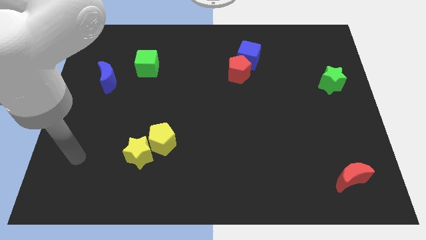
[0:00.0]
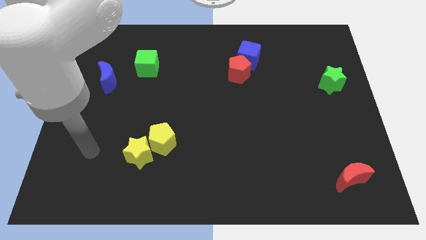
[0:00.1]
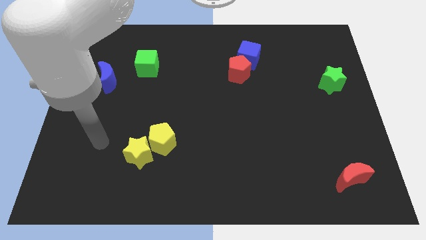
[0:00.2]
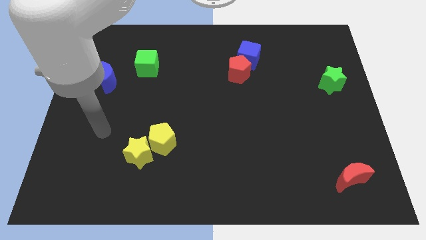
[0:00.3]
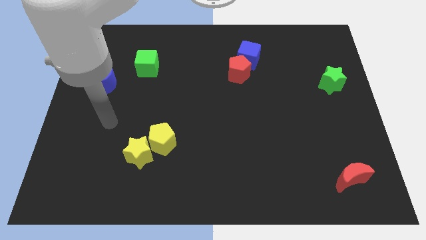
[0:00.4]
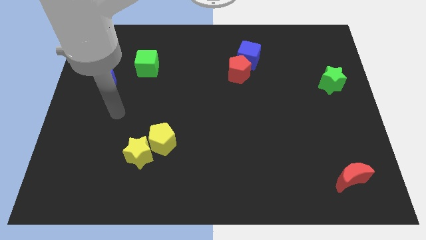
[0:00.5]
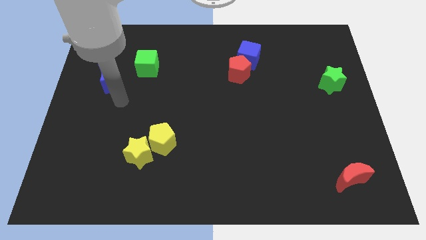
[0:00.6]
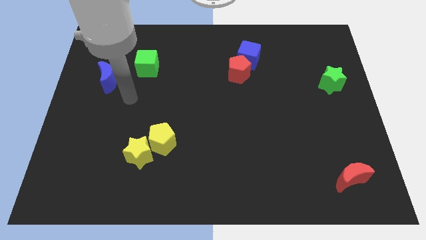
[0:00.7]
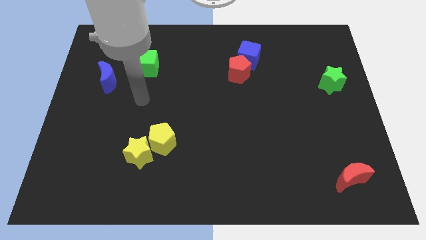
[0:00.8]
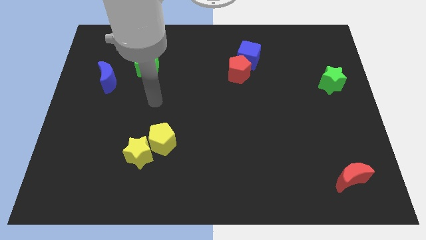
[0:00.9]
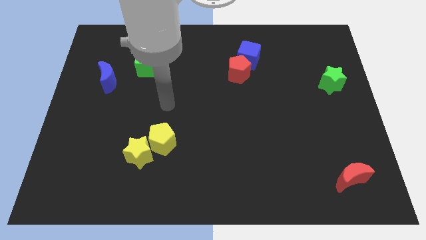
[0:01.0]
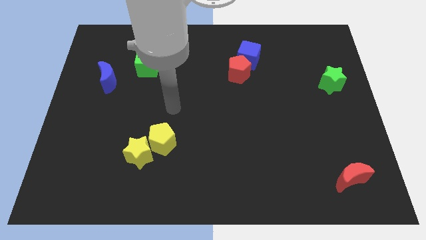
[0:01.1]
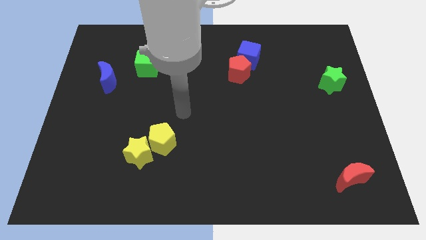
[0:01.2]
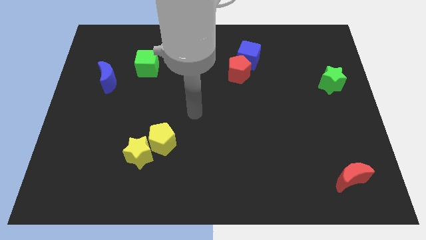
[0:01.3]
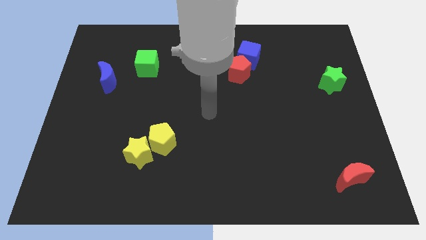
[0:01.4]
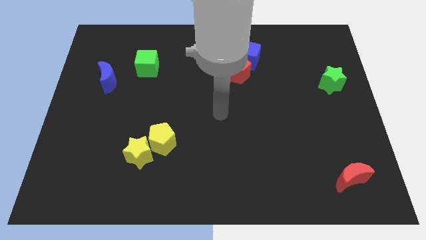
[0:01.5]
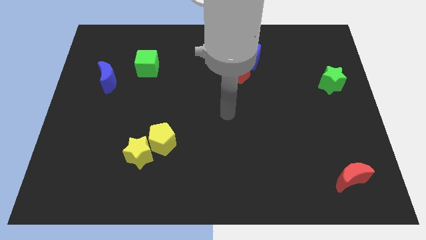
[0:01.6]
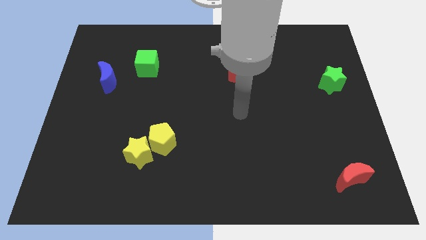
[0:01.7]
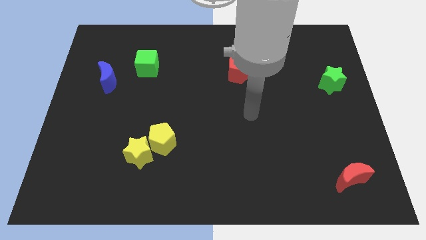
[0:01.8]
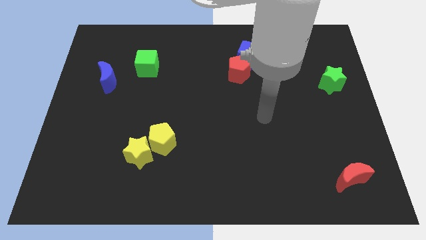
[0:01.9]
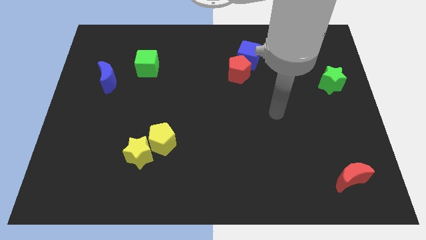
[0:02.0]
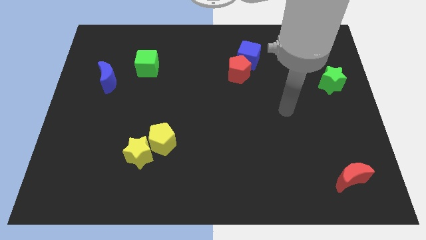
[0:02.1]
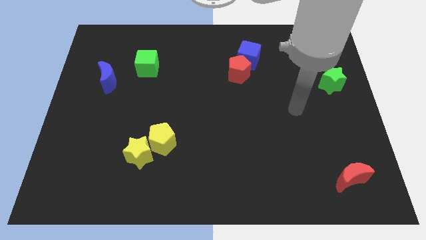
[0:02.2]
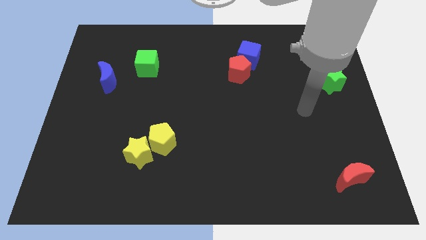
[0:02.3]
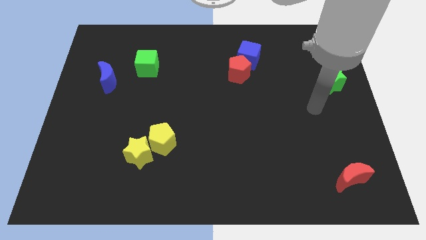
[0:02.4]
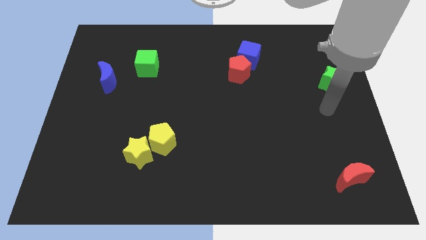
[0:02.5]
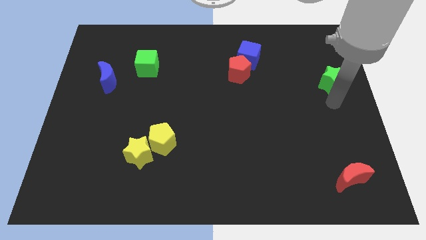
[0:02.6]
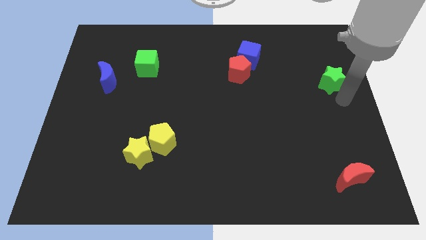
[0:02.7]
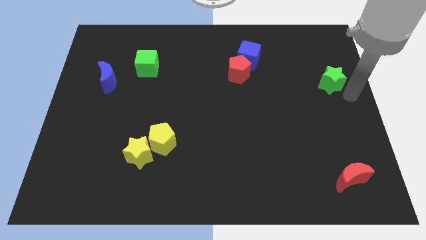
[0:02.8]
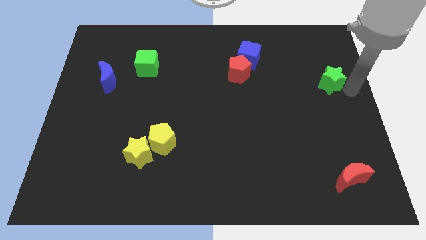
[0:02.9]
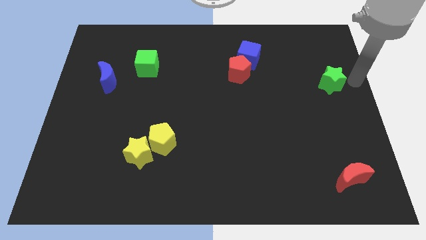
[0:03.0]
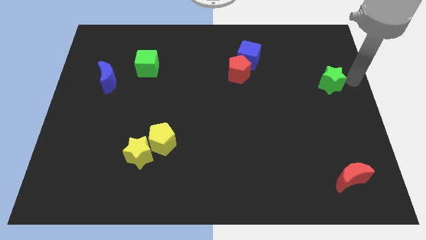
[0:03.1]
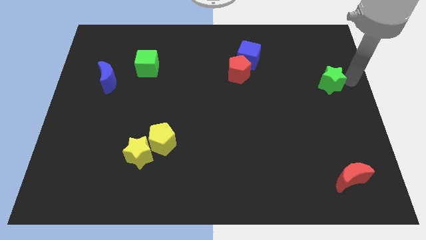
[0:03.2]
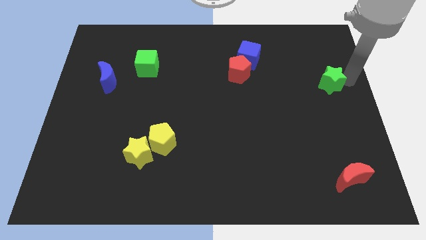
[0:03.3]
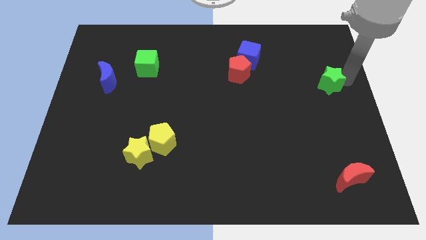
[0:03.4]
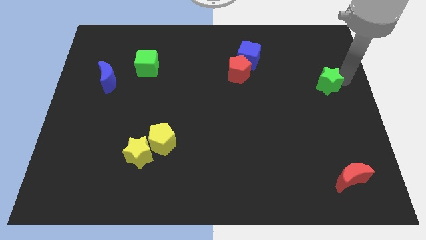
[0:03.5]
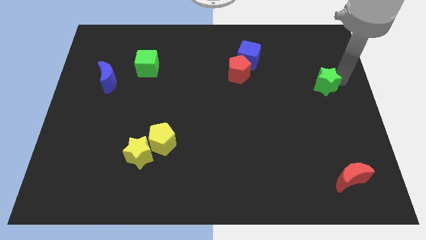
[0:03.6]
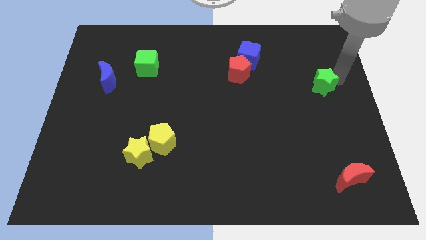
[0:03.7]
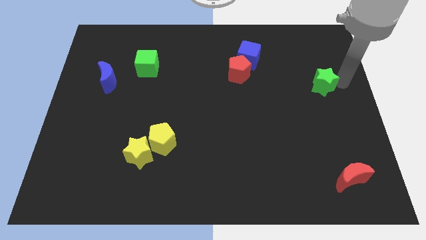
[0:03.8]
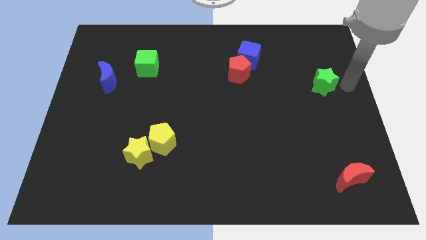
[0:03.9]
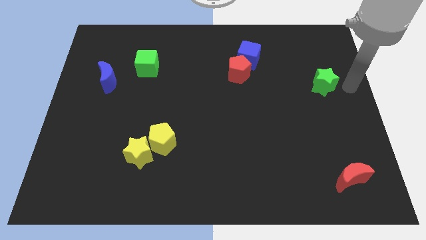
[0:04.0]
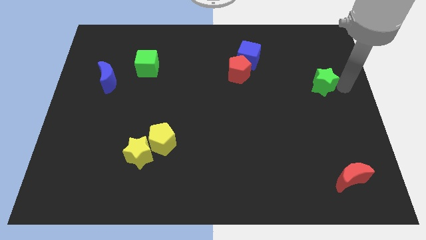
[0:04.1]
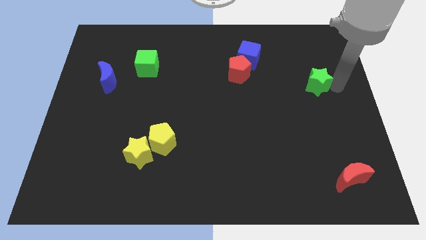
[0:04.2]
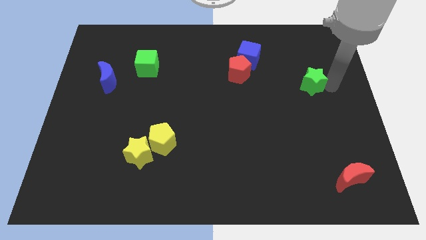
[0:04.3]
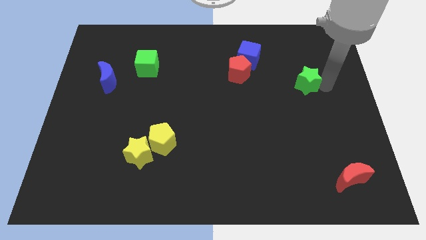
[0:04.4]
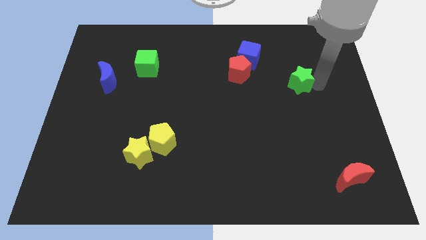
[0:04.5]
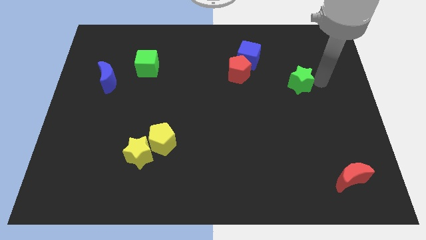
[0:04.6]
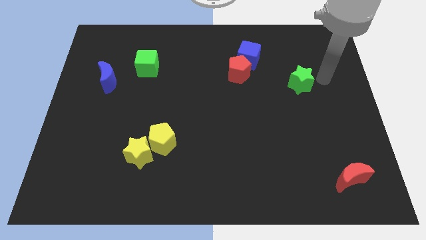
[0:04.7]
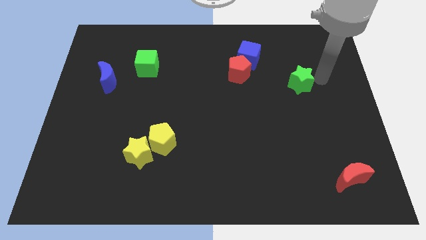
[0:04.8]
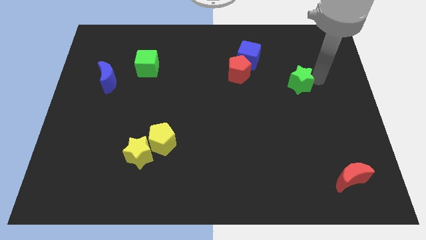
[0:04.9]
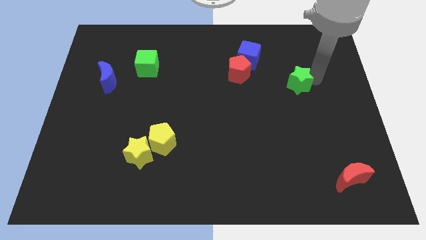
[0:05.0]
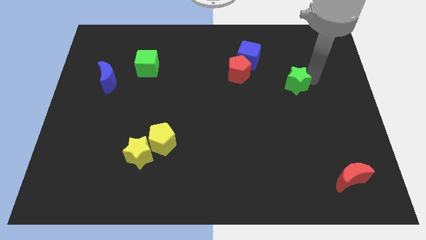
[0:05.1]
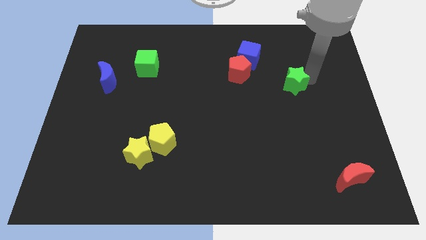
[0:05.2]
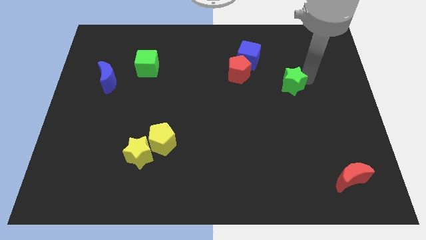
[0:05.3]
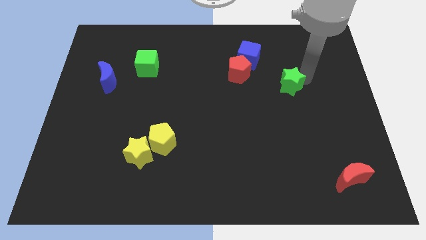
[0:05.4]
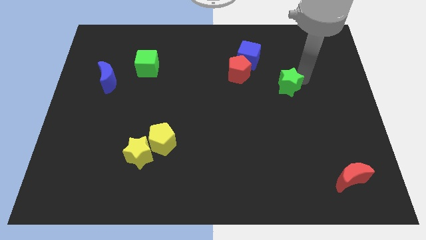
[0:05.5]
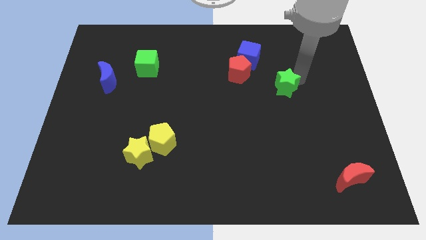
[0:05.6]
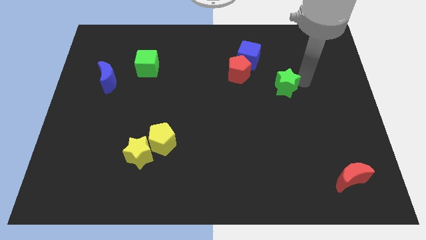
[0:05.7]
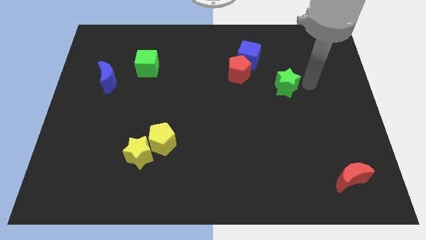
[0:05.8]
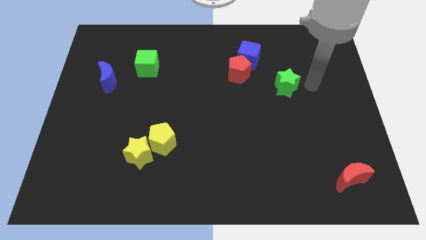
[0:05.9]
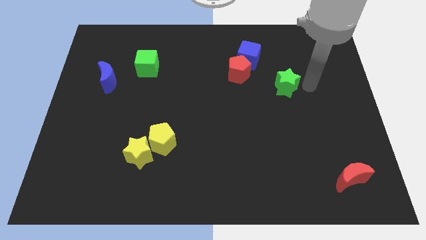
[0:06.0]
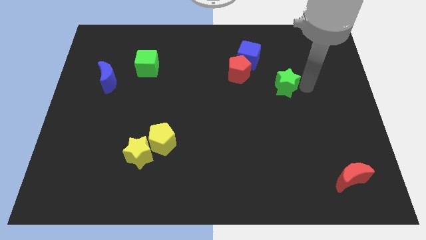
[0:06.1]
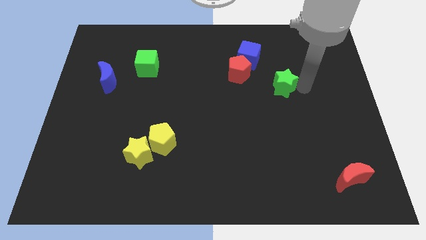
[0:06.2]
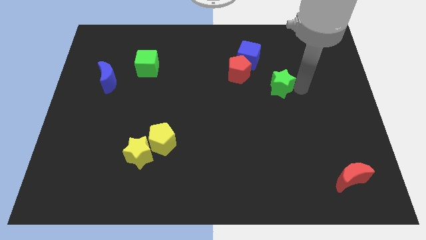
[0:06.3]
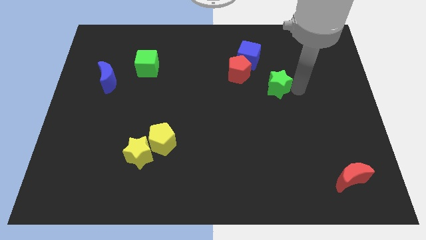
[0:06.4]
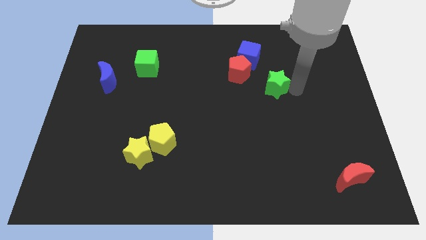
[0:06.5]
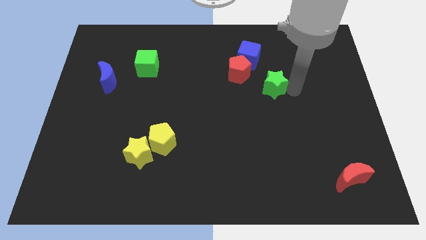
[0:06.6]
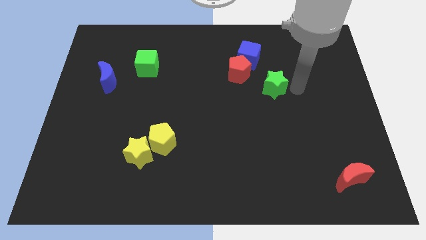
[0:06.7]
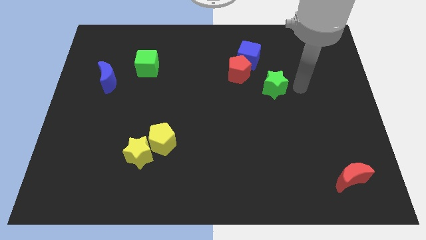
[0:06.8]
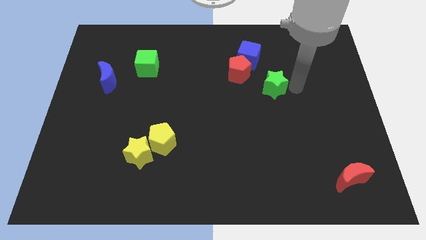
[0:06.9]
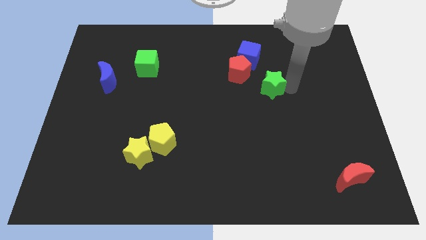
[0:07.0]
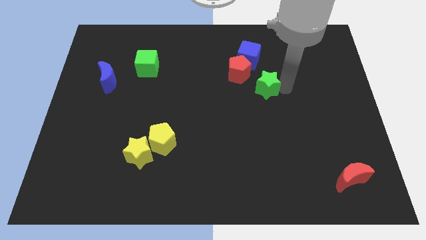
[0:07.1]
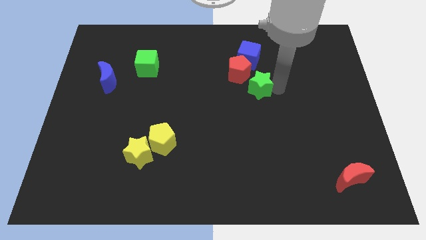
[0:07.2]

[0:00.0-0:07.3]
put the green star to the center
